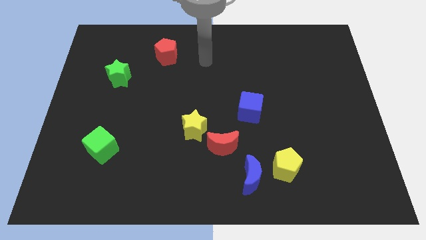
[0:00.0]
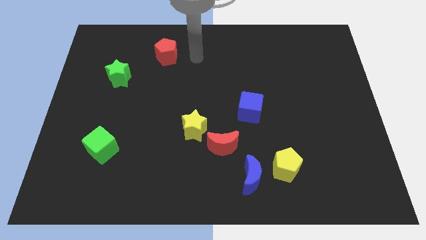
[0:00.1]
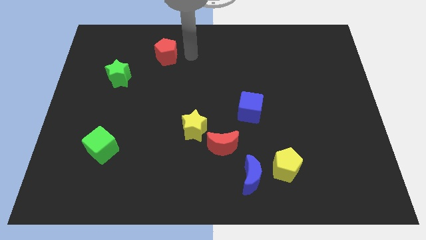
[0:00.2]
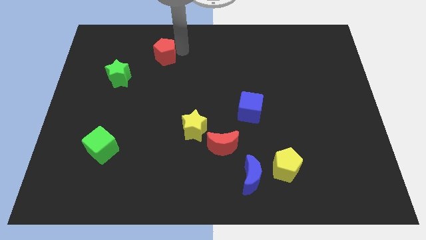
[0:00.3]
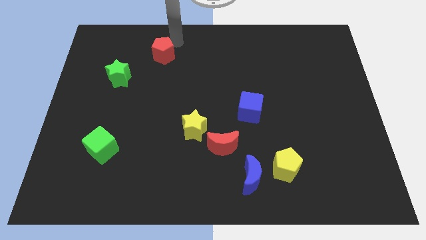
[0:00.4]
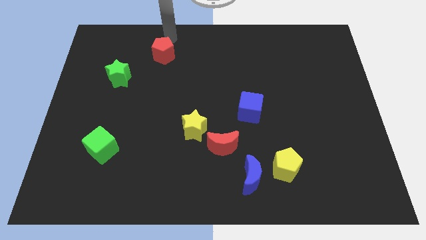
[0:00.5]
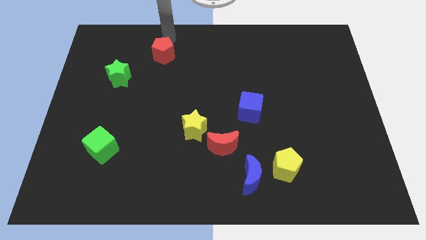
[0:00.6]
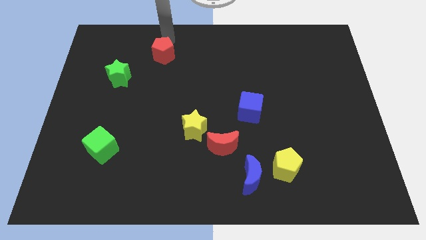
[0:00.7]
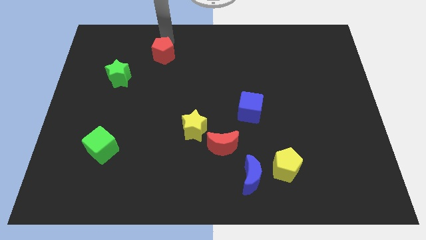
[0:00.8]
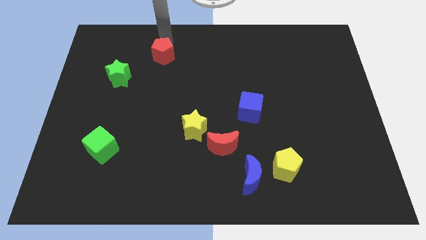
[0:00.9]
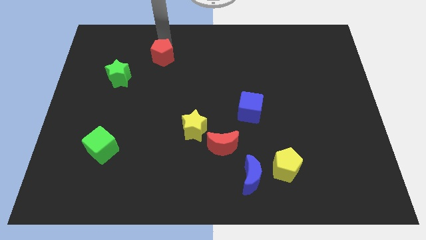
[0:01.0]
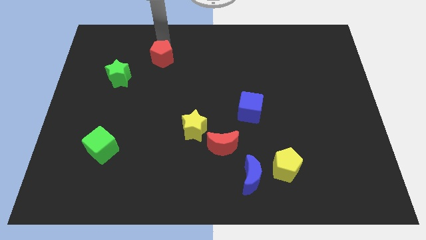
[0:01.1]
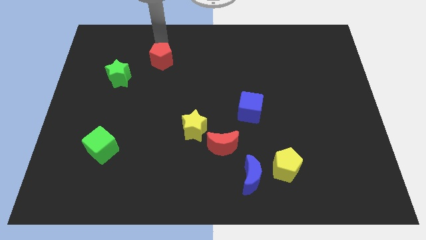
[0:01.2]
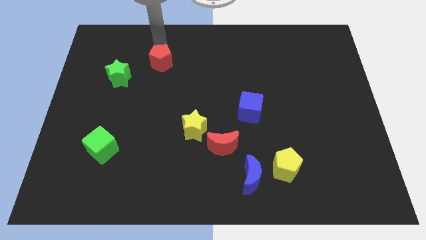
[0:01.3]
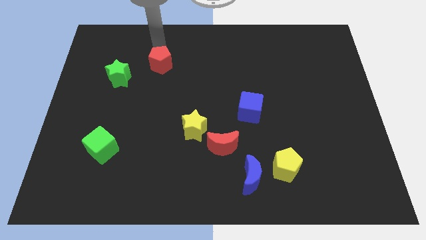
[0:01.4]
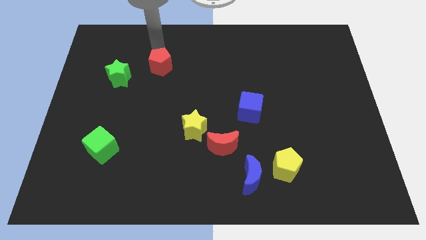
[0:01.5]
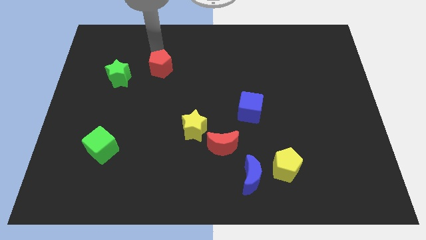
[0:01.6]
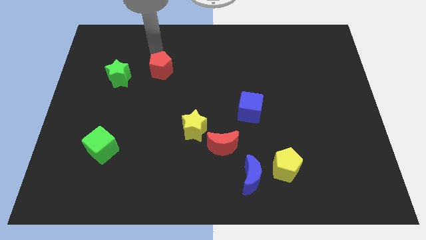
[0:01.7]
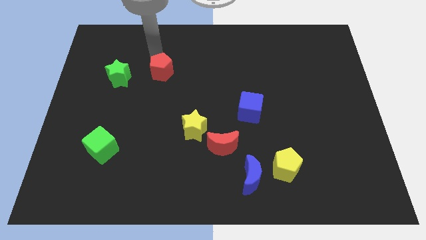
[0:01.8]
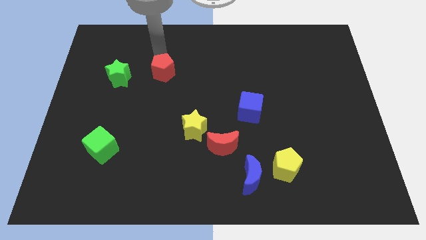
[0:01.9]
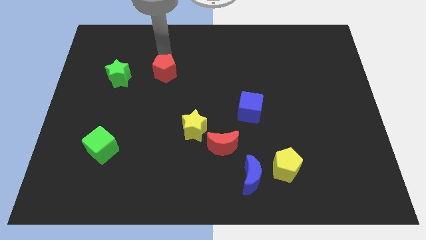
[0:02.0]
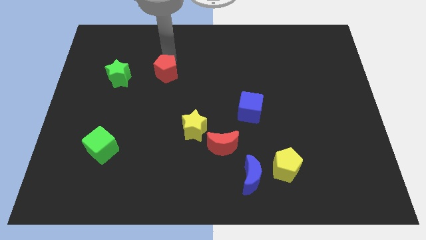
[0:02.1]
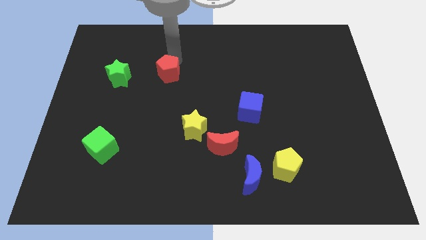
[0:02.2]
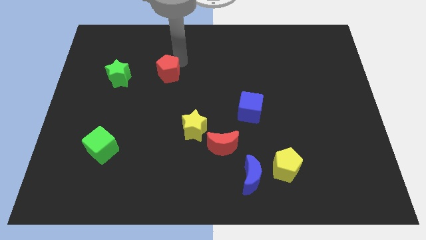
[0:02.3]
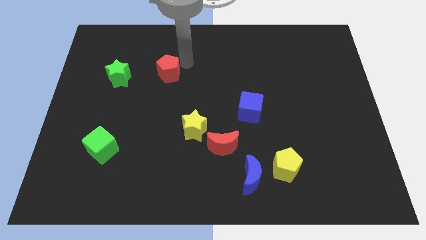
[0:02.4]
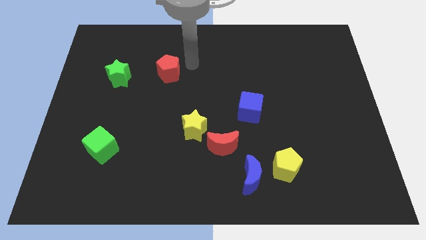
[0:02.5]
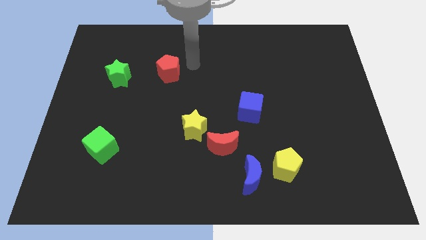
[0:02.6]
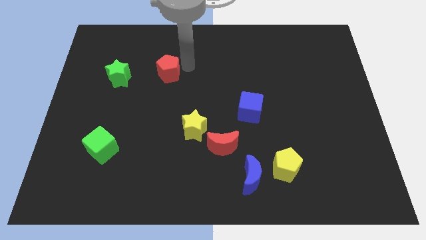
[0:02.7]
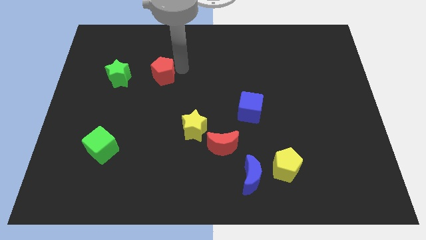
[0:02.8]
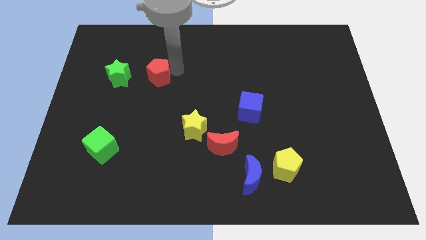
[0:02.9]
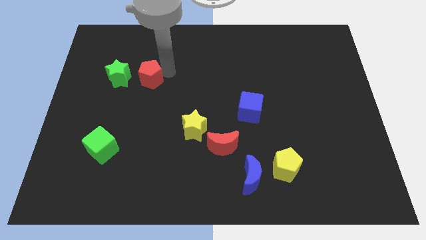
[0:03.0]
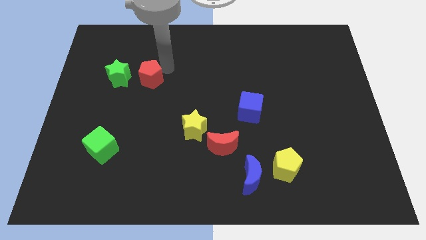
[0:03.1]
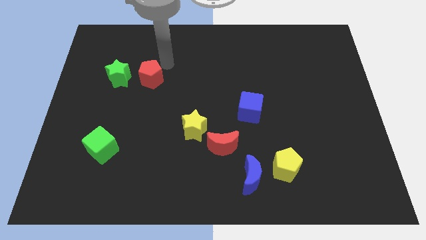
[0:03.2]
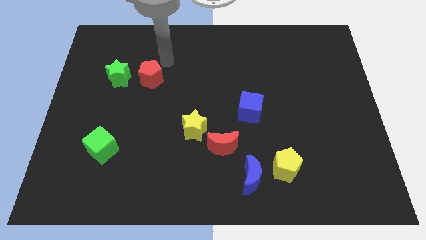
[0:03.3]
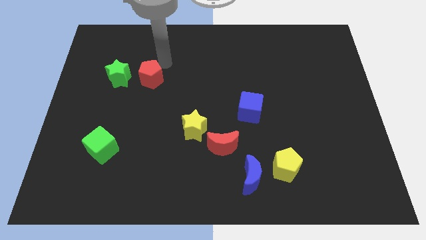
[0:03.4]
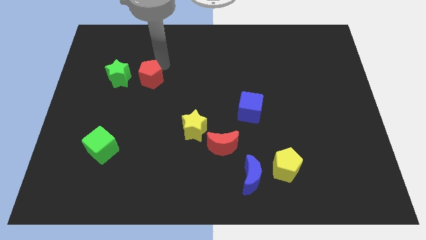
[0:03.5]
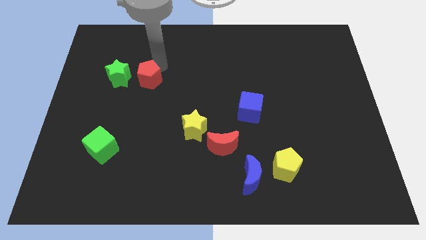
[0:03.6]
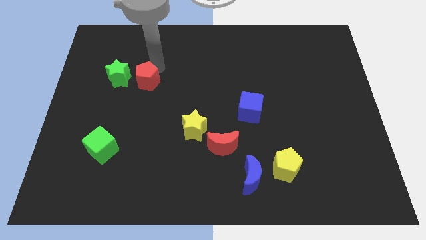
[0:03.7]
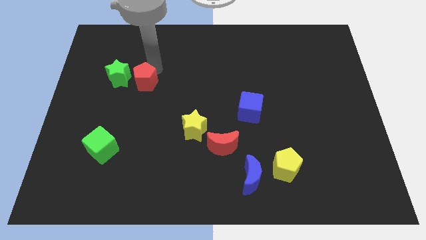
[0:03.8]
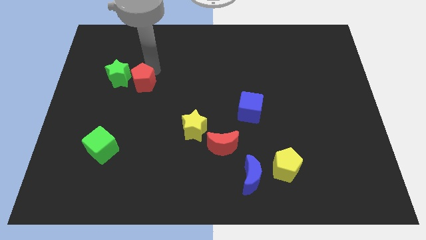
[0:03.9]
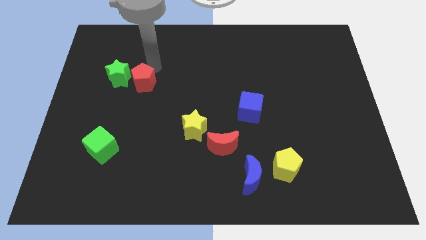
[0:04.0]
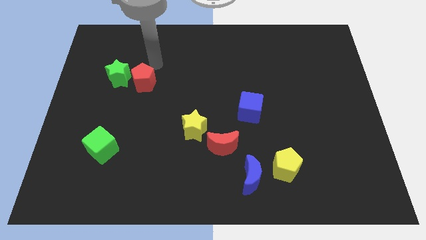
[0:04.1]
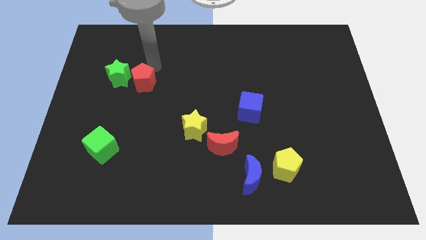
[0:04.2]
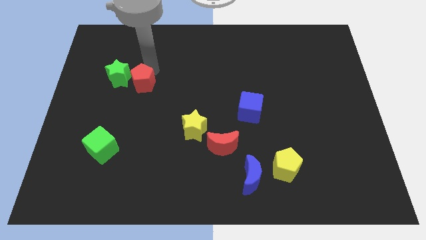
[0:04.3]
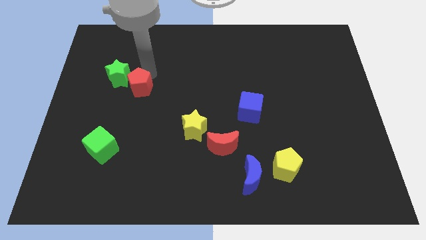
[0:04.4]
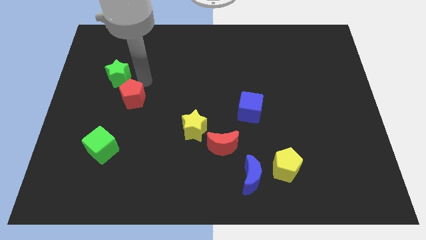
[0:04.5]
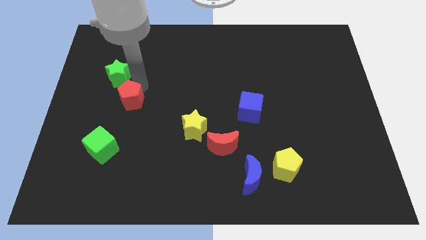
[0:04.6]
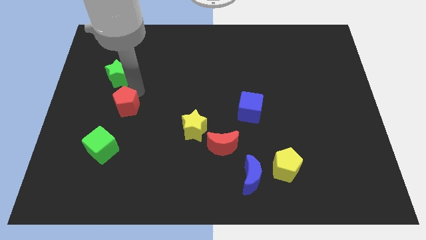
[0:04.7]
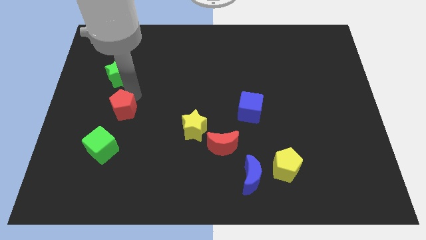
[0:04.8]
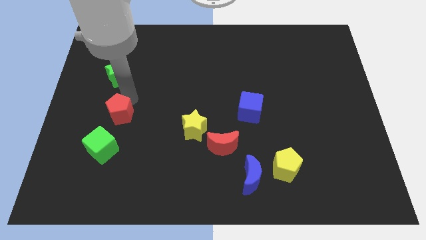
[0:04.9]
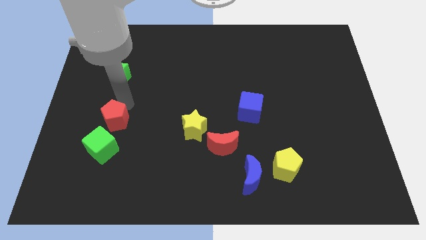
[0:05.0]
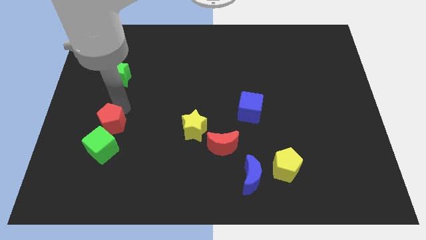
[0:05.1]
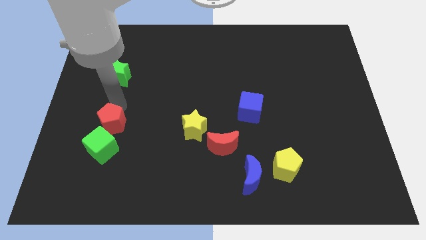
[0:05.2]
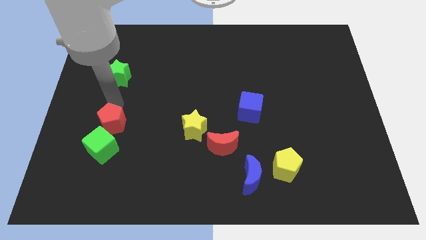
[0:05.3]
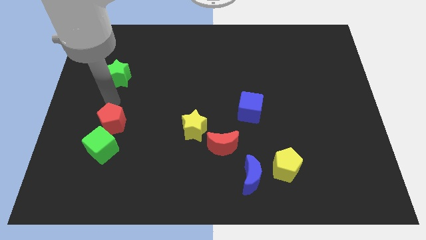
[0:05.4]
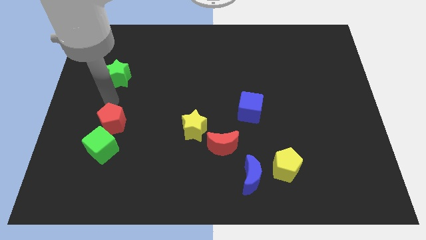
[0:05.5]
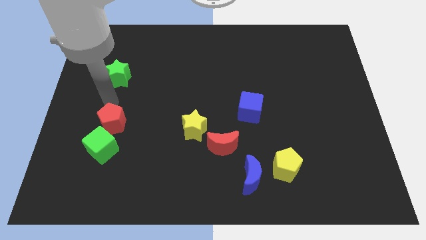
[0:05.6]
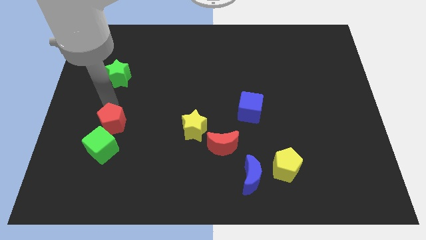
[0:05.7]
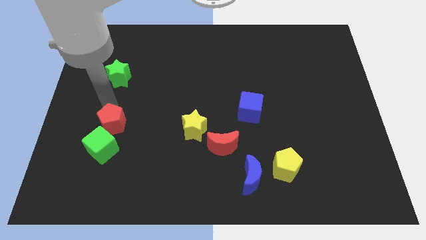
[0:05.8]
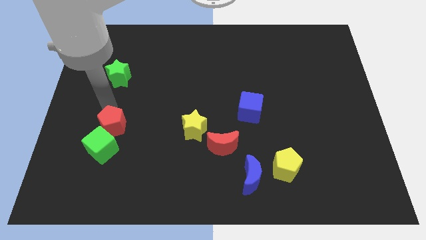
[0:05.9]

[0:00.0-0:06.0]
move the red pentagon to the green cube

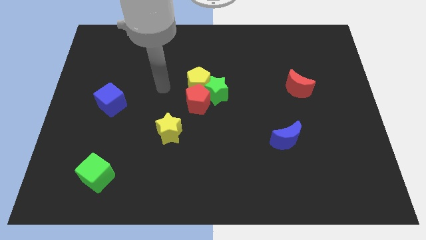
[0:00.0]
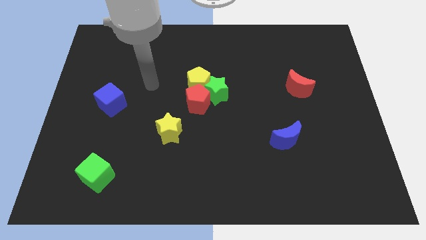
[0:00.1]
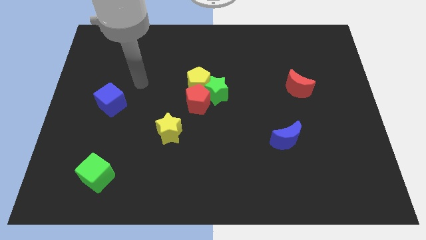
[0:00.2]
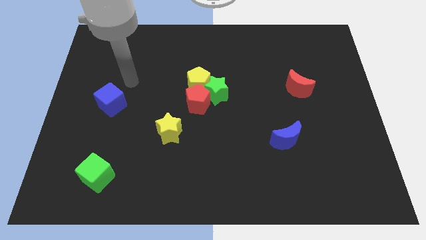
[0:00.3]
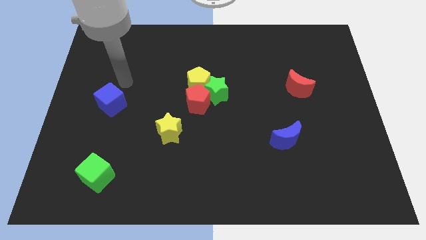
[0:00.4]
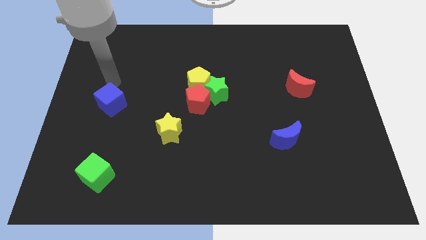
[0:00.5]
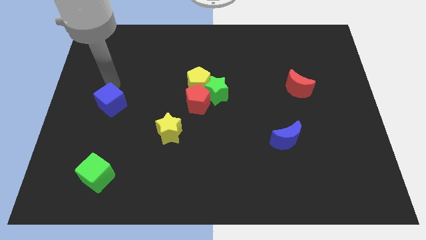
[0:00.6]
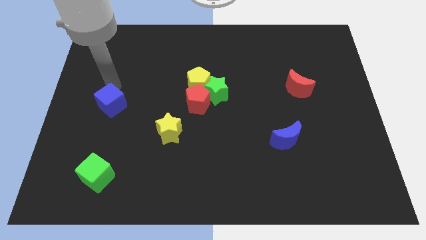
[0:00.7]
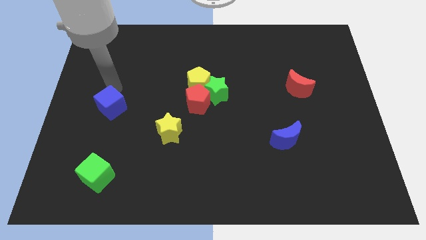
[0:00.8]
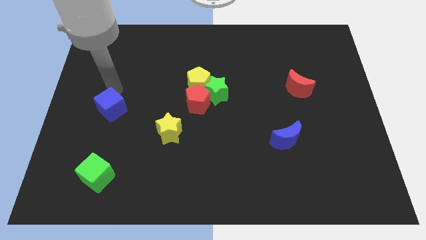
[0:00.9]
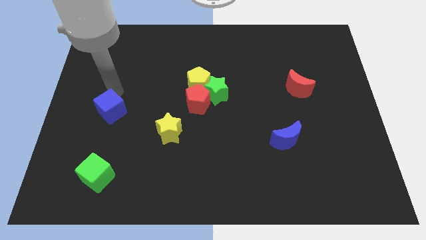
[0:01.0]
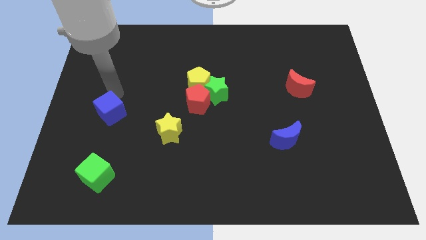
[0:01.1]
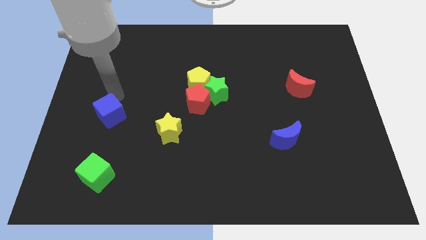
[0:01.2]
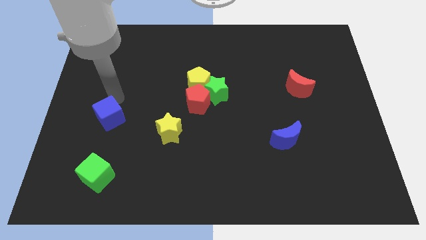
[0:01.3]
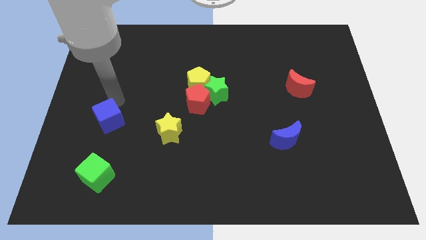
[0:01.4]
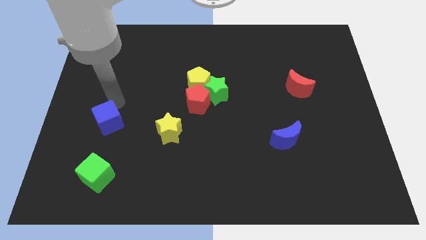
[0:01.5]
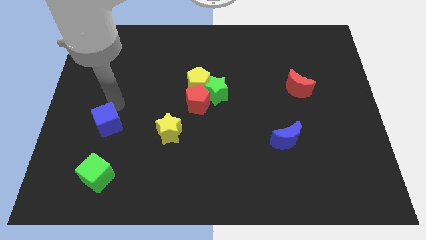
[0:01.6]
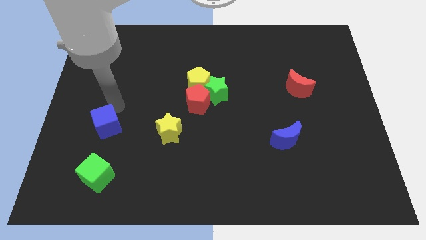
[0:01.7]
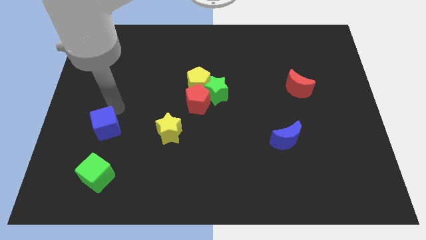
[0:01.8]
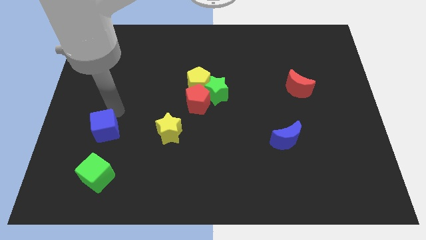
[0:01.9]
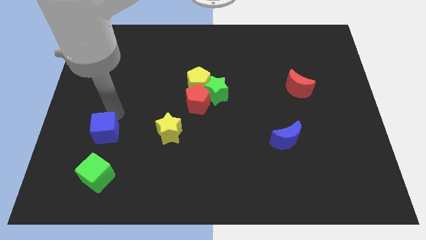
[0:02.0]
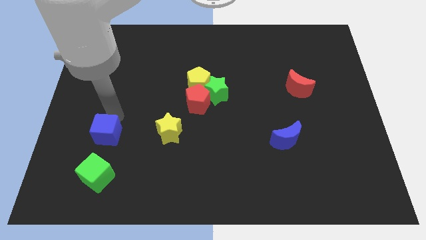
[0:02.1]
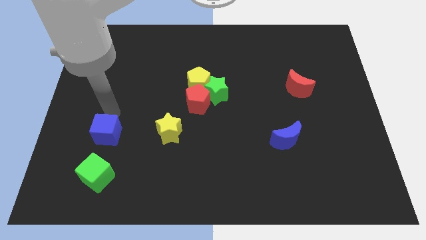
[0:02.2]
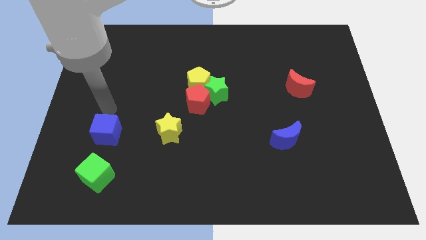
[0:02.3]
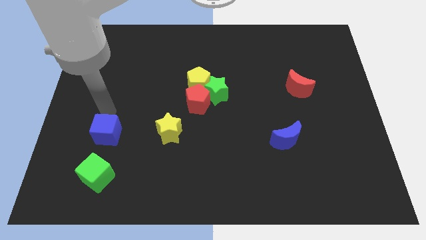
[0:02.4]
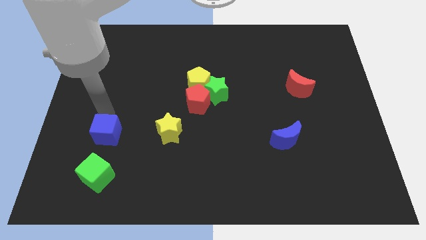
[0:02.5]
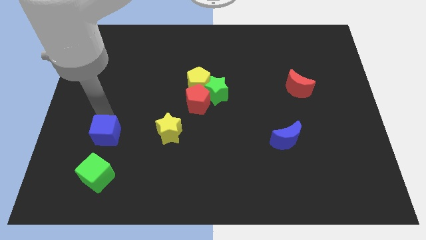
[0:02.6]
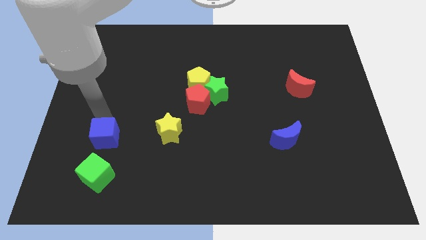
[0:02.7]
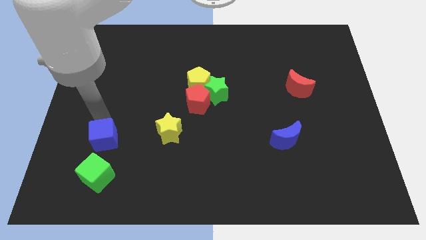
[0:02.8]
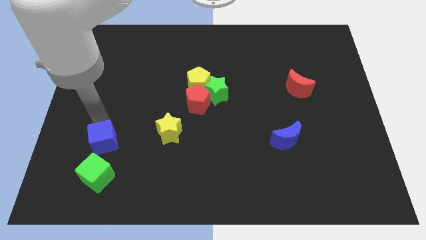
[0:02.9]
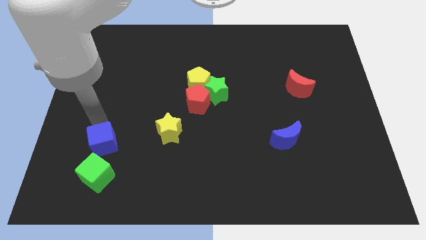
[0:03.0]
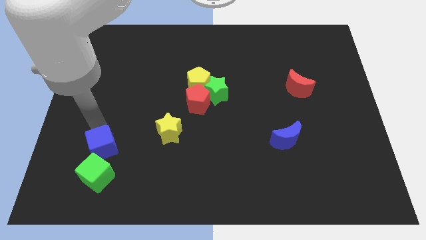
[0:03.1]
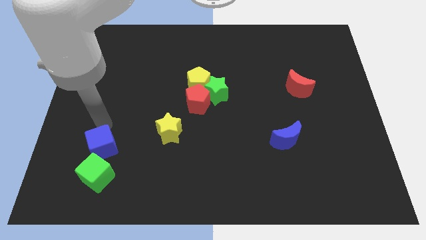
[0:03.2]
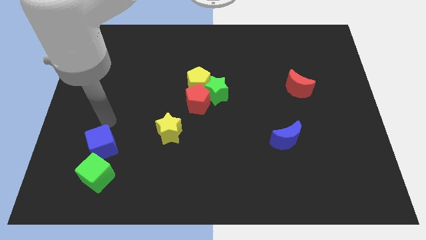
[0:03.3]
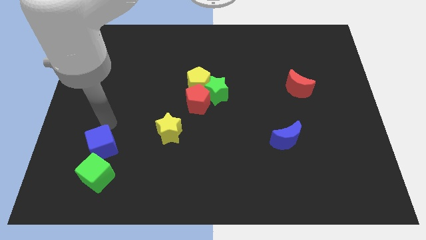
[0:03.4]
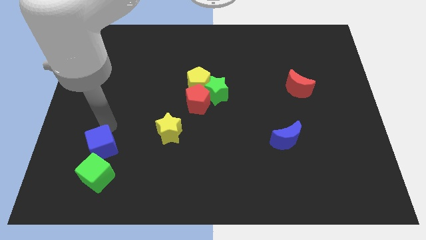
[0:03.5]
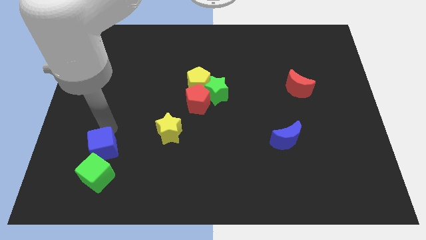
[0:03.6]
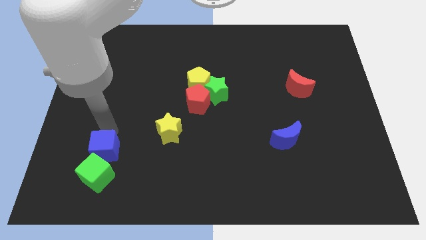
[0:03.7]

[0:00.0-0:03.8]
slide the blue cube towards the green cube
